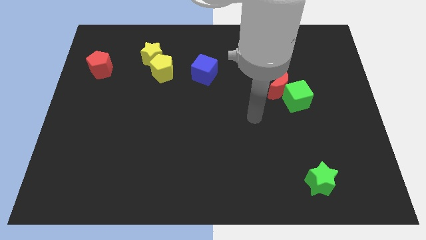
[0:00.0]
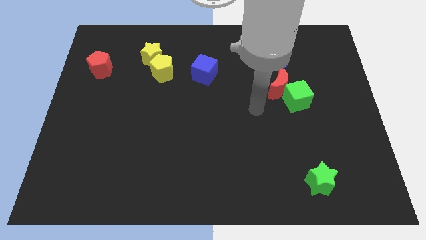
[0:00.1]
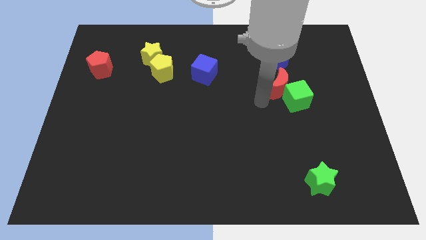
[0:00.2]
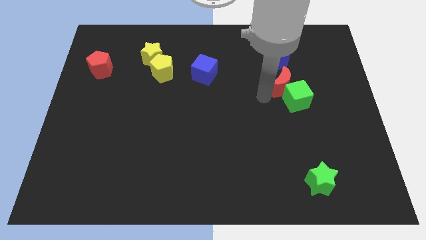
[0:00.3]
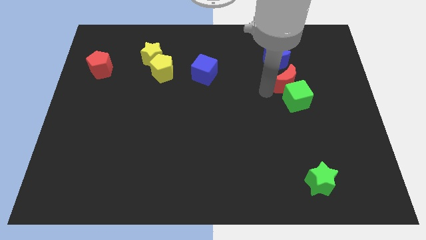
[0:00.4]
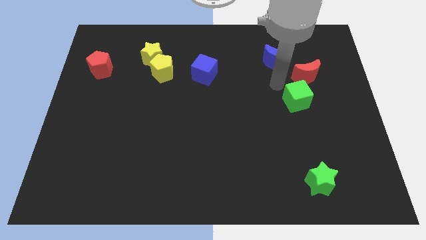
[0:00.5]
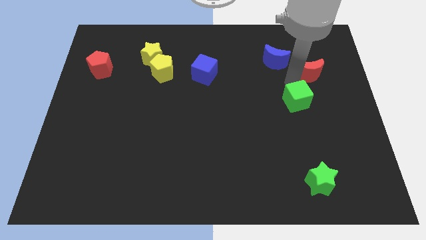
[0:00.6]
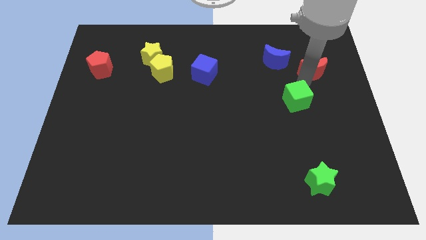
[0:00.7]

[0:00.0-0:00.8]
separate the green cube from the red moon

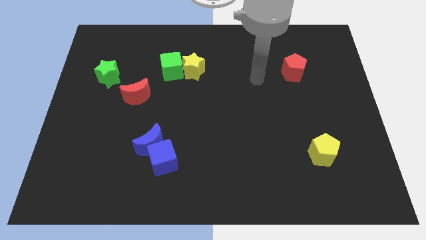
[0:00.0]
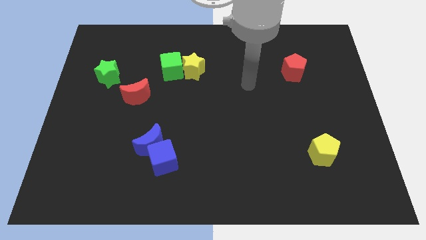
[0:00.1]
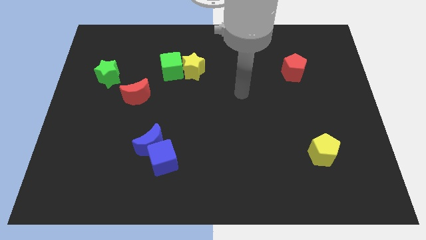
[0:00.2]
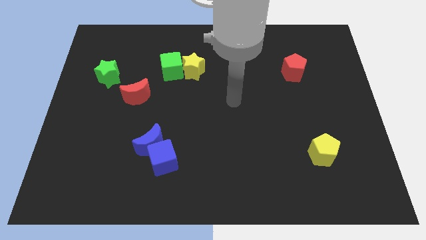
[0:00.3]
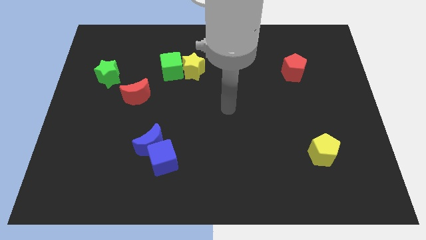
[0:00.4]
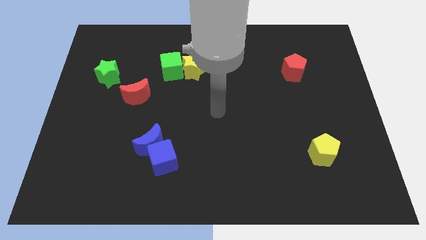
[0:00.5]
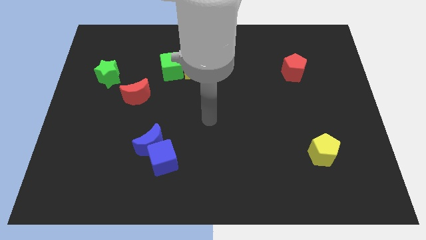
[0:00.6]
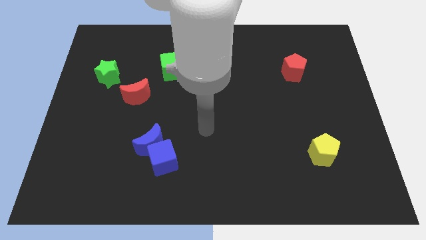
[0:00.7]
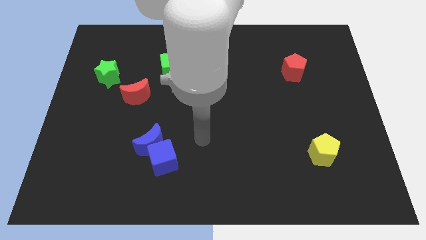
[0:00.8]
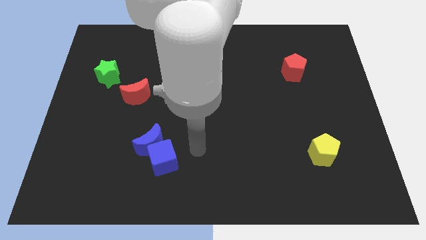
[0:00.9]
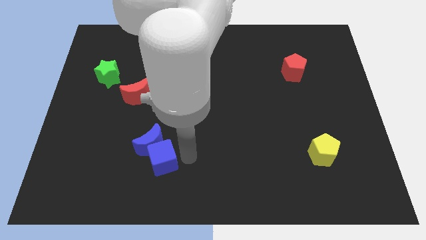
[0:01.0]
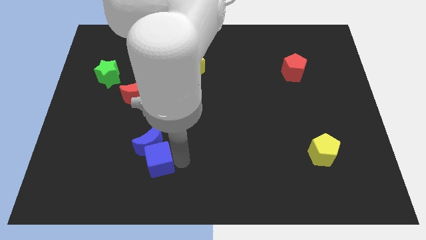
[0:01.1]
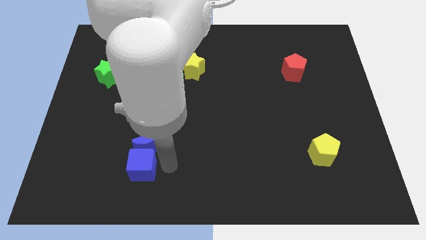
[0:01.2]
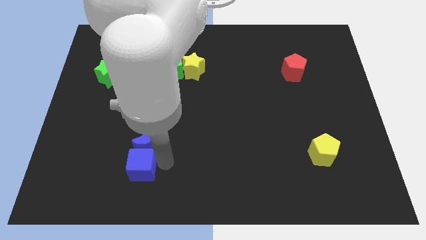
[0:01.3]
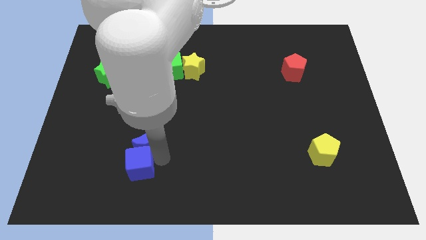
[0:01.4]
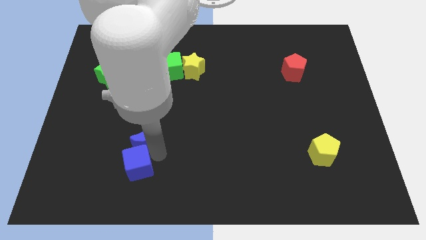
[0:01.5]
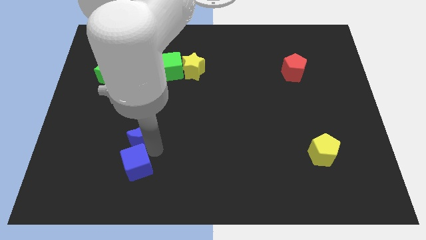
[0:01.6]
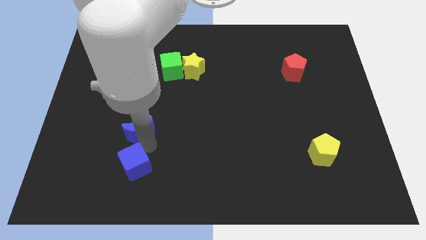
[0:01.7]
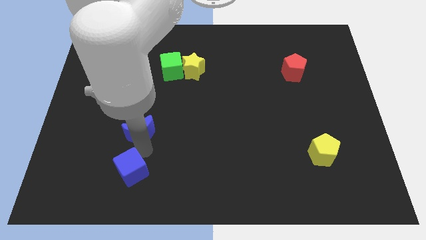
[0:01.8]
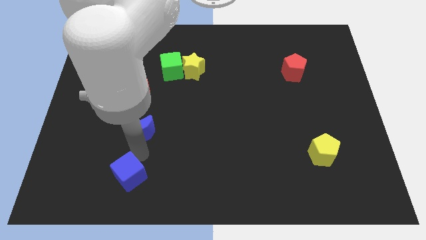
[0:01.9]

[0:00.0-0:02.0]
move the blue moon away from the blue cube

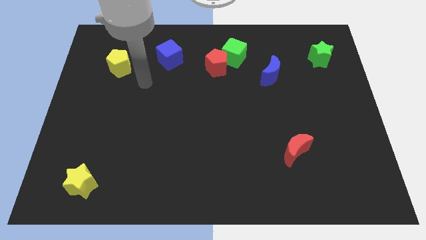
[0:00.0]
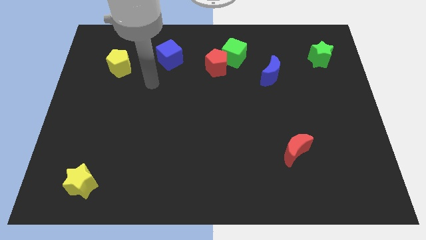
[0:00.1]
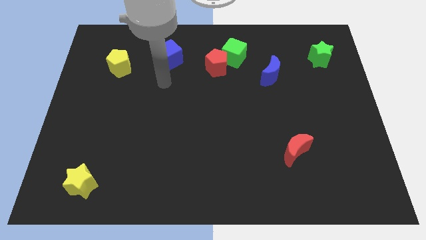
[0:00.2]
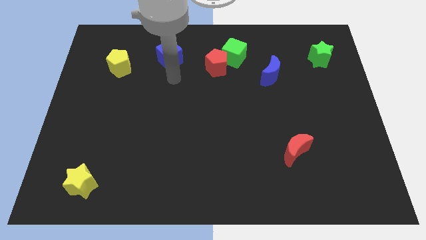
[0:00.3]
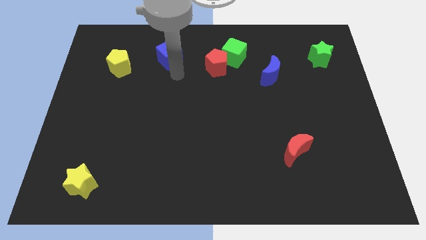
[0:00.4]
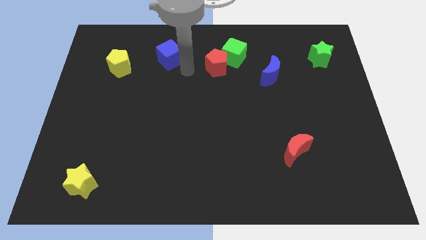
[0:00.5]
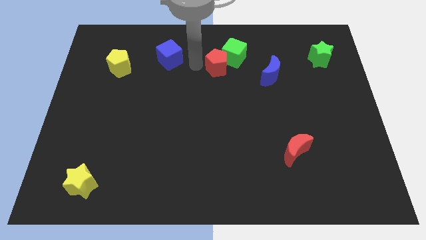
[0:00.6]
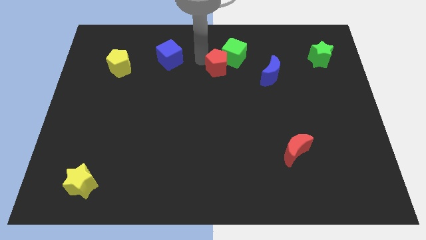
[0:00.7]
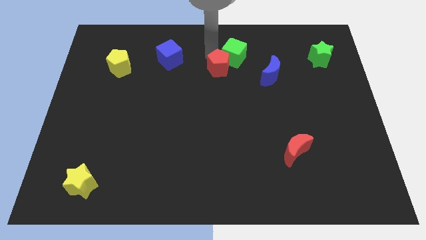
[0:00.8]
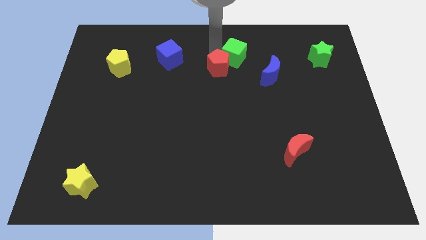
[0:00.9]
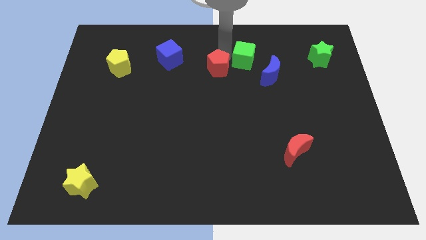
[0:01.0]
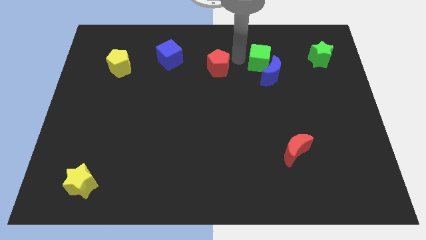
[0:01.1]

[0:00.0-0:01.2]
pull the red pentagon apart from the green cube

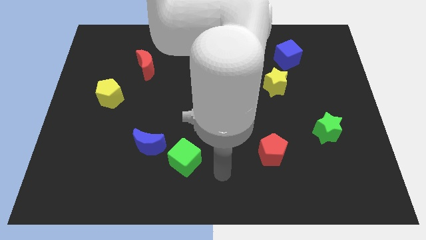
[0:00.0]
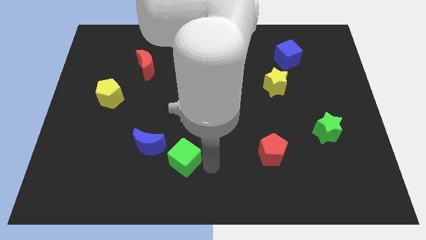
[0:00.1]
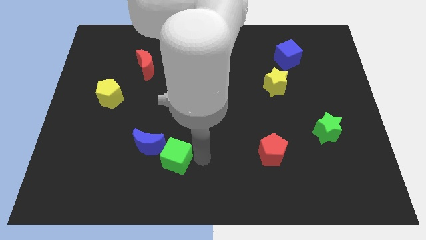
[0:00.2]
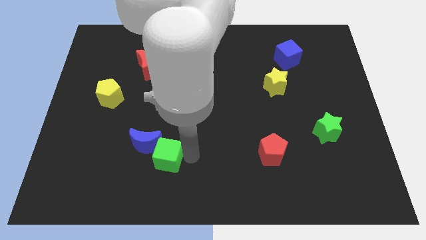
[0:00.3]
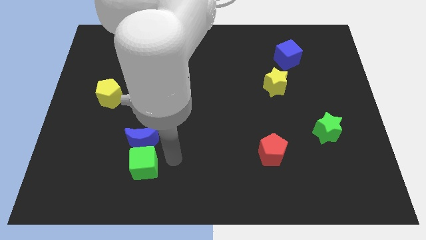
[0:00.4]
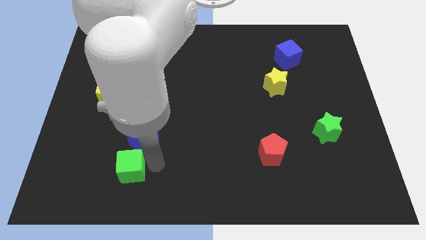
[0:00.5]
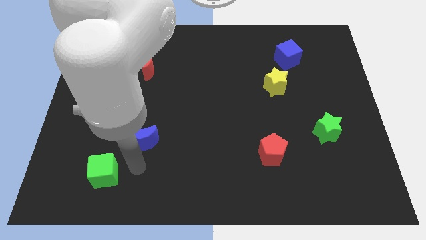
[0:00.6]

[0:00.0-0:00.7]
move the blue moon away from the green cube

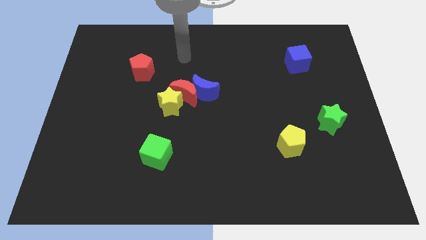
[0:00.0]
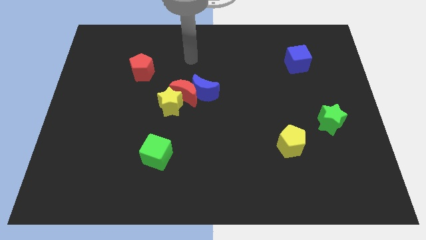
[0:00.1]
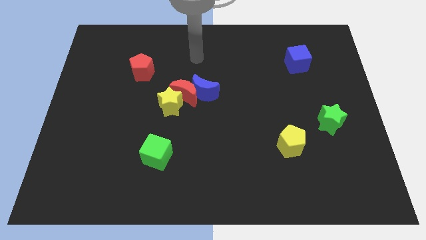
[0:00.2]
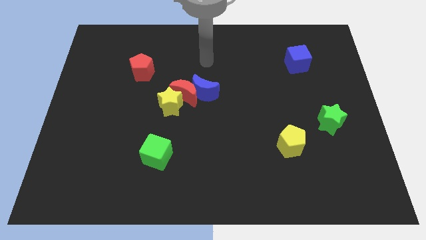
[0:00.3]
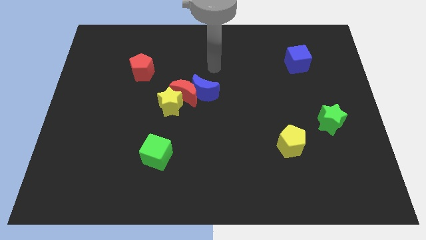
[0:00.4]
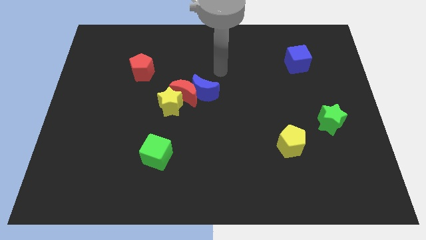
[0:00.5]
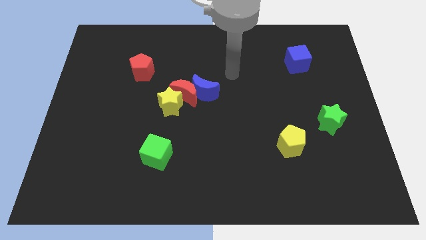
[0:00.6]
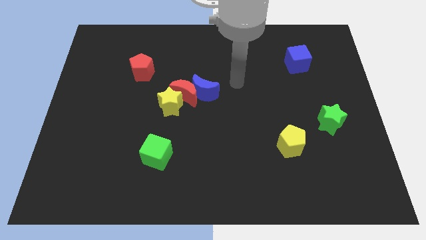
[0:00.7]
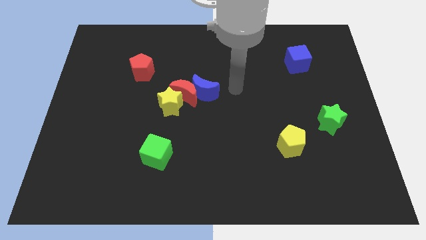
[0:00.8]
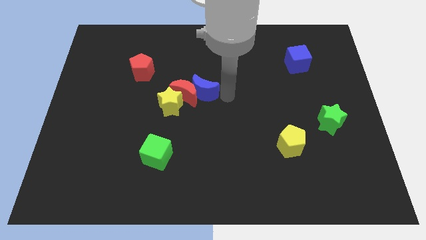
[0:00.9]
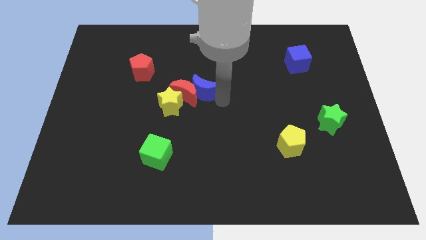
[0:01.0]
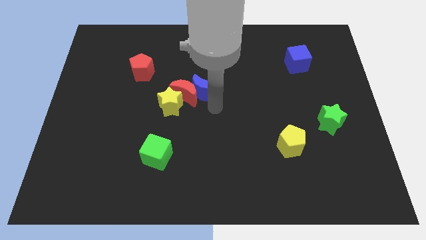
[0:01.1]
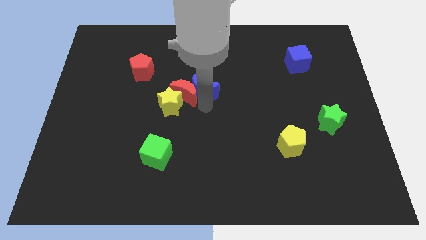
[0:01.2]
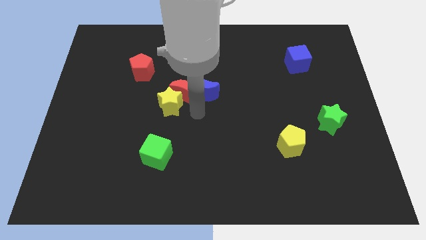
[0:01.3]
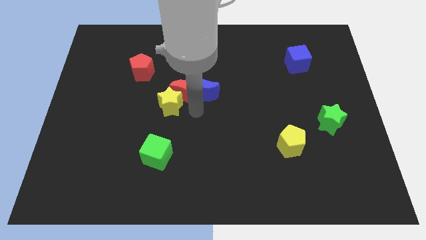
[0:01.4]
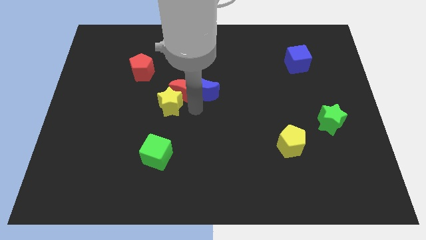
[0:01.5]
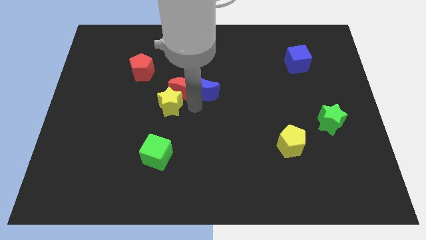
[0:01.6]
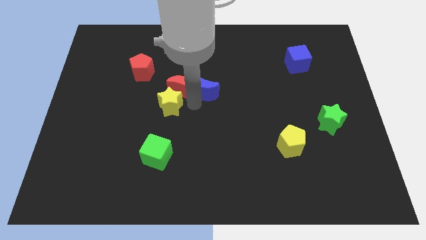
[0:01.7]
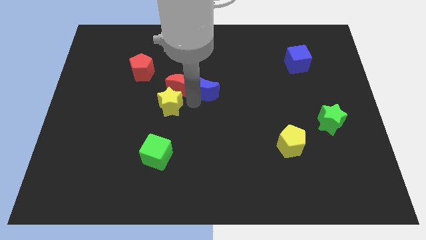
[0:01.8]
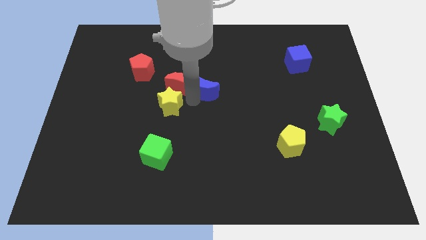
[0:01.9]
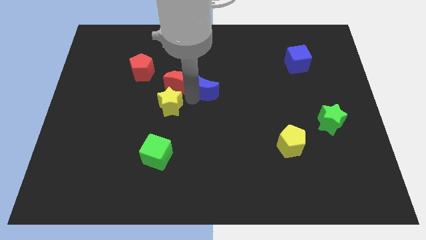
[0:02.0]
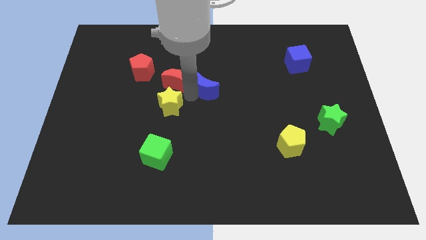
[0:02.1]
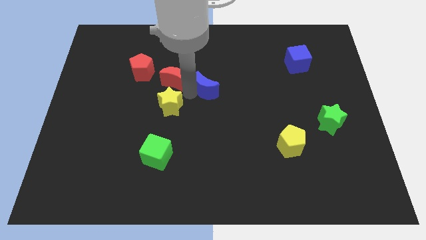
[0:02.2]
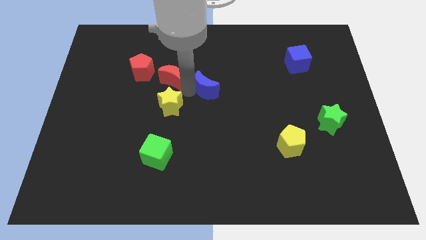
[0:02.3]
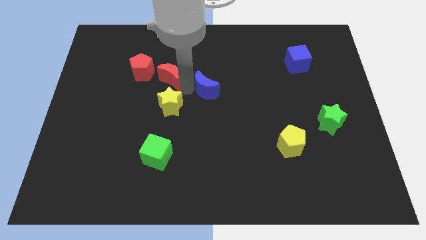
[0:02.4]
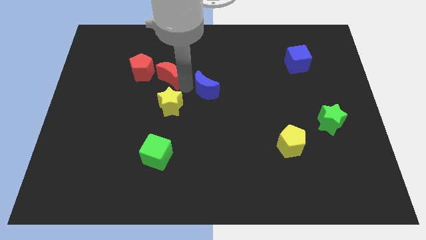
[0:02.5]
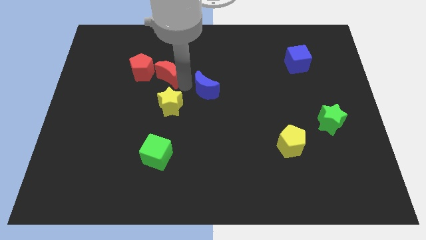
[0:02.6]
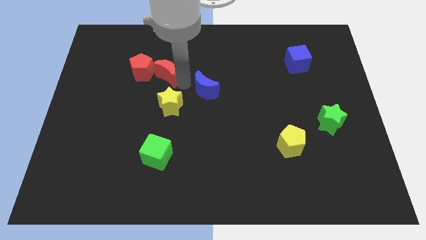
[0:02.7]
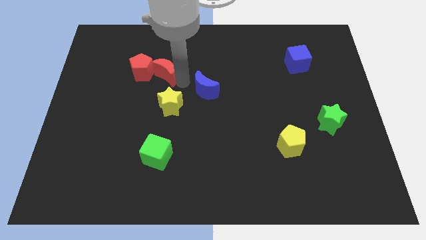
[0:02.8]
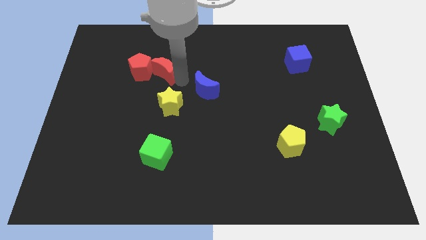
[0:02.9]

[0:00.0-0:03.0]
pull the red moon apart from the yellow star and blue moon

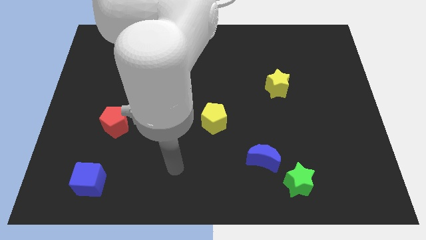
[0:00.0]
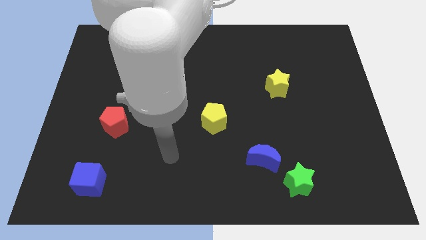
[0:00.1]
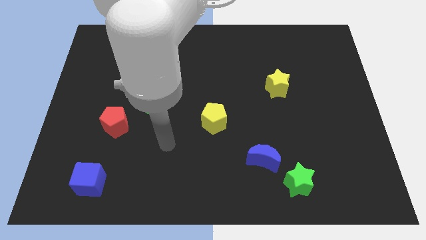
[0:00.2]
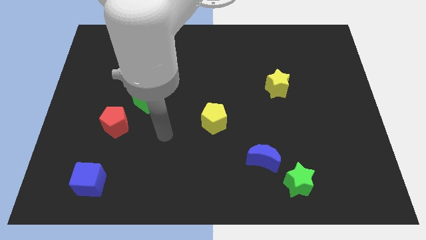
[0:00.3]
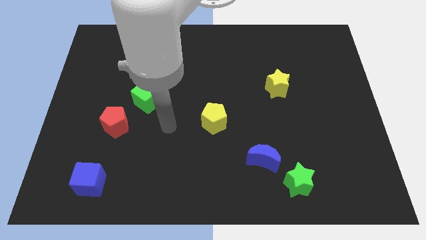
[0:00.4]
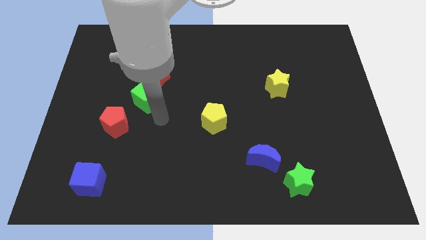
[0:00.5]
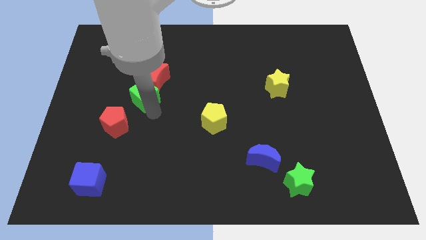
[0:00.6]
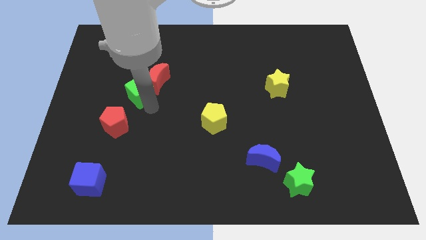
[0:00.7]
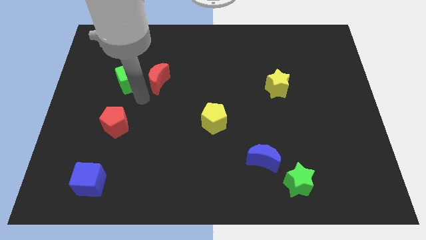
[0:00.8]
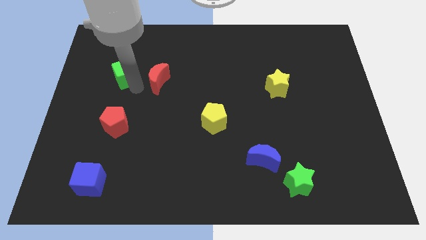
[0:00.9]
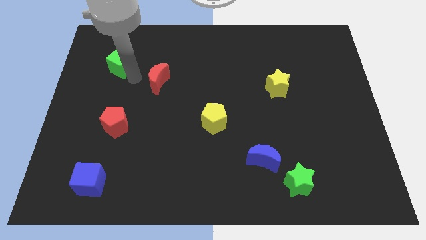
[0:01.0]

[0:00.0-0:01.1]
move the red moon away from the green cube

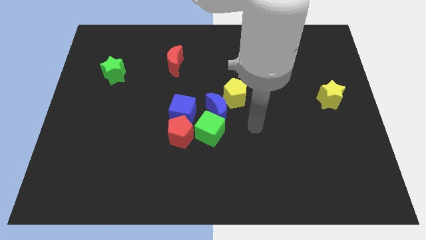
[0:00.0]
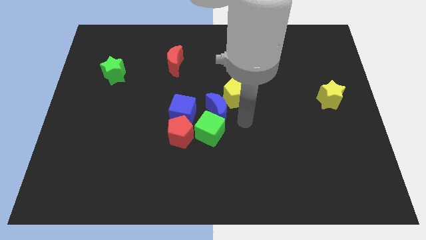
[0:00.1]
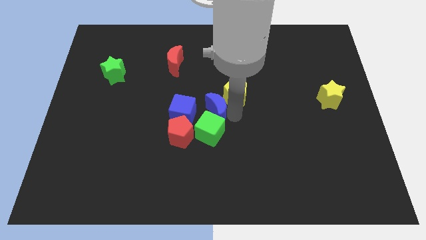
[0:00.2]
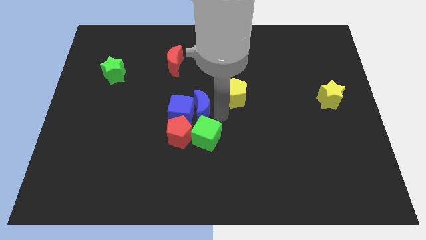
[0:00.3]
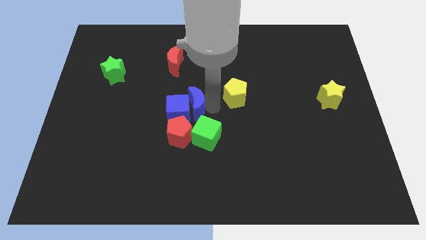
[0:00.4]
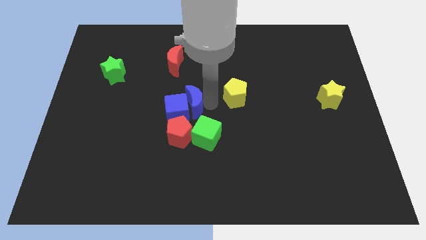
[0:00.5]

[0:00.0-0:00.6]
pull the yellow pentagon apart from the blue moon

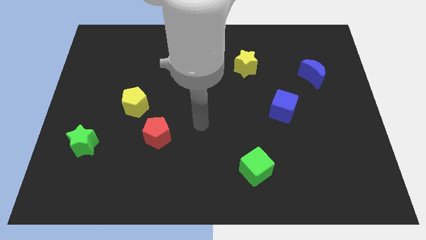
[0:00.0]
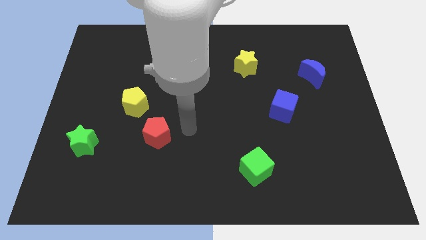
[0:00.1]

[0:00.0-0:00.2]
move the red pentagon away from the yellow pentagon
